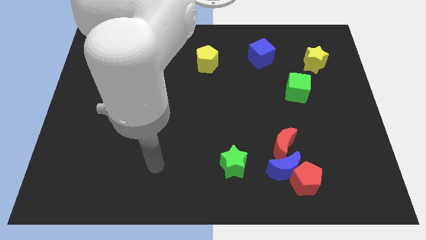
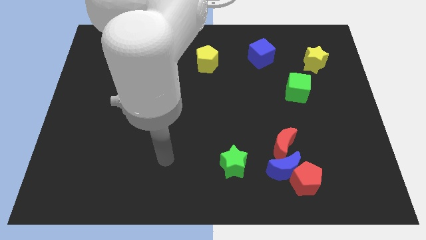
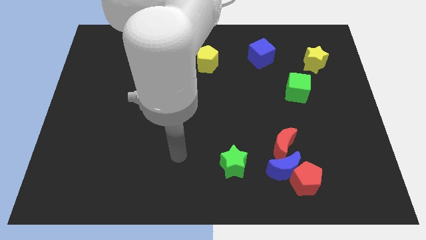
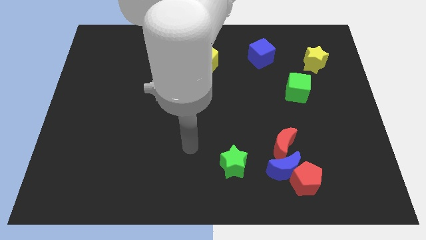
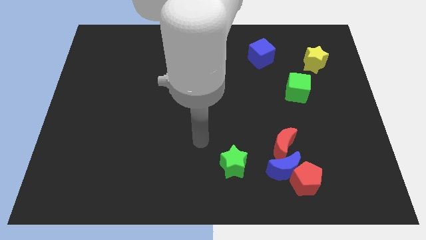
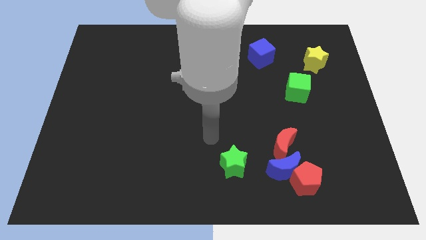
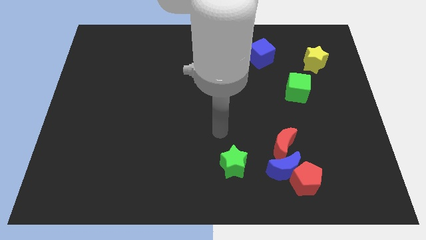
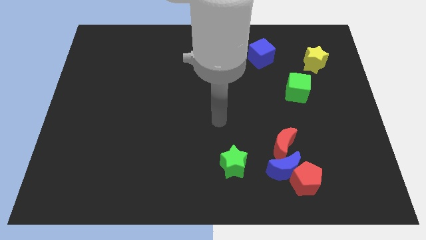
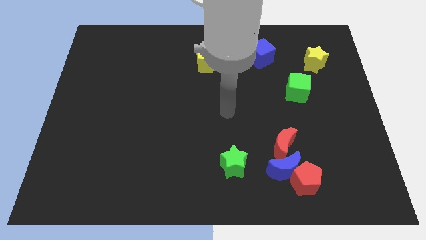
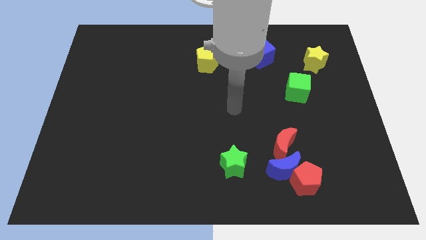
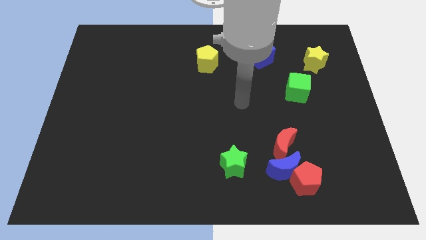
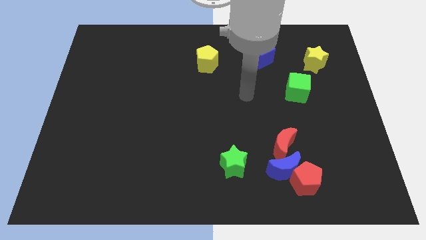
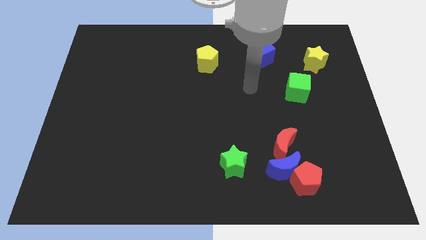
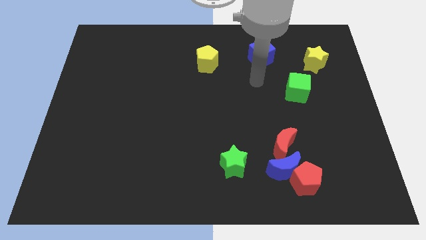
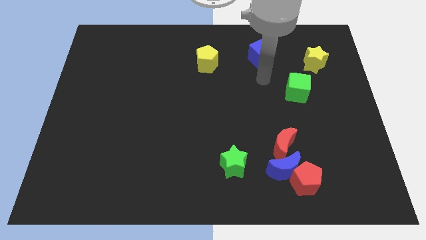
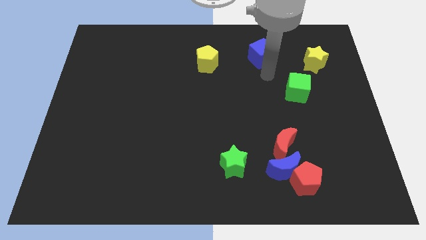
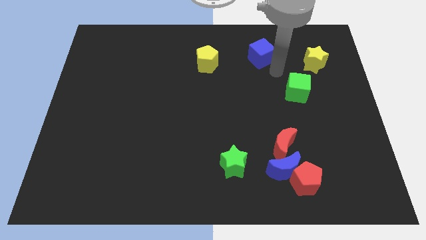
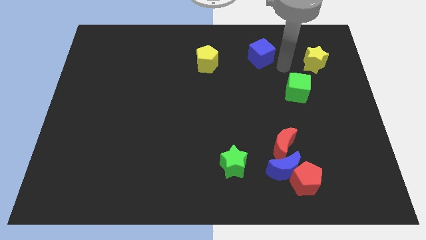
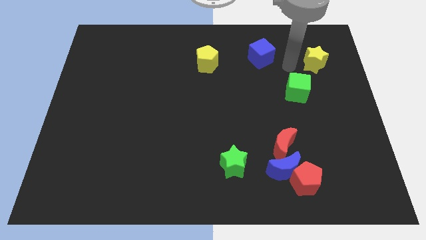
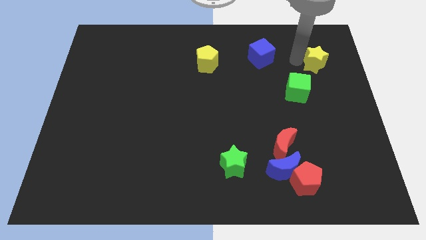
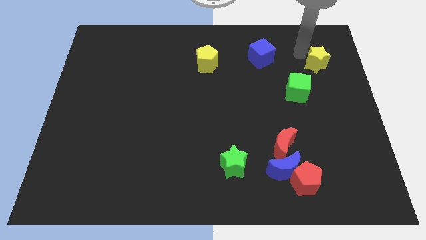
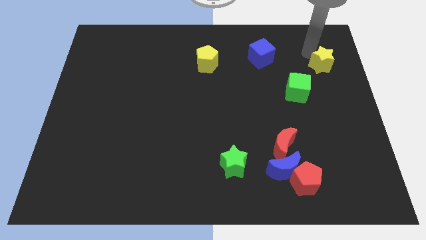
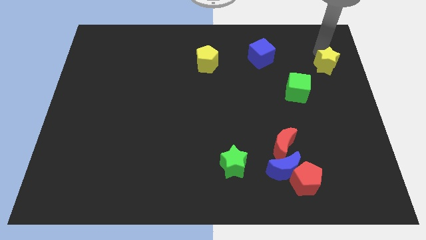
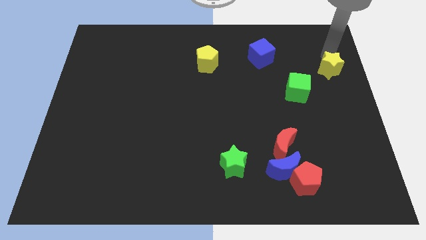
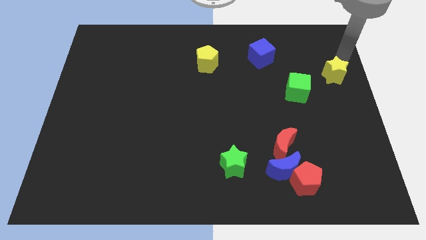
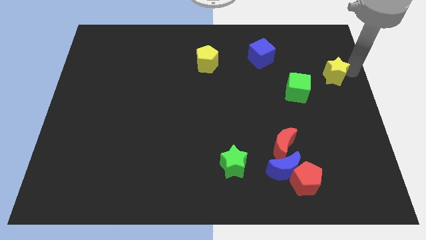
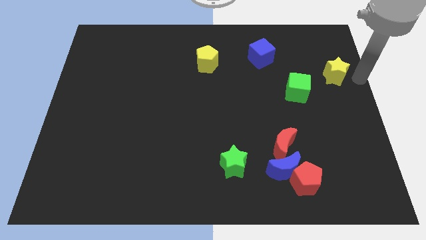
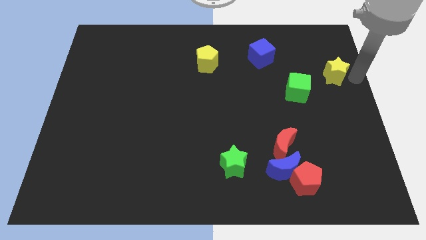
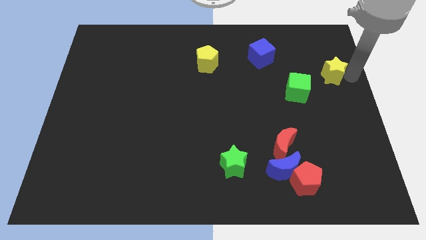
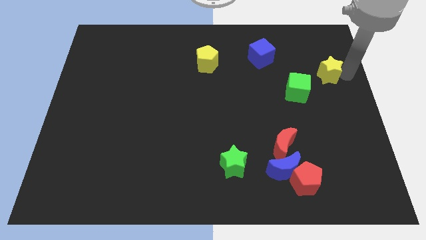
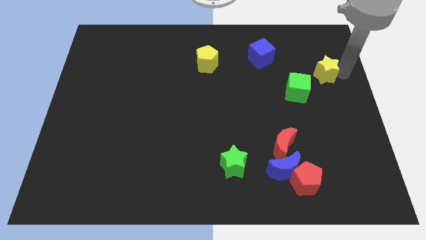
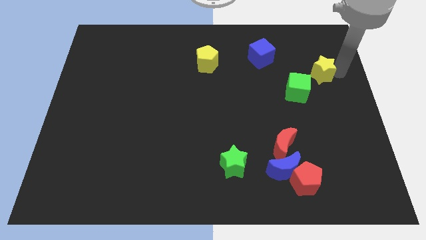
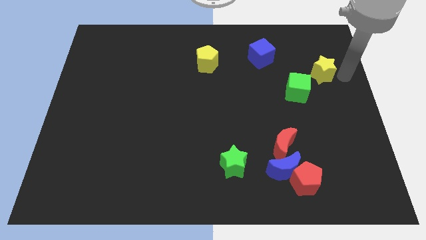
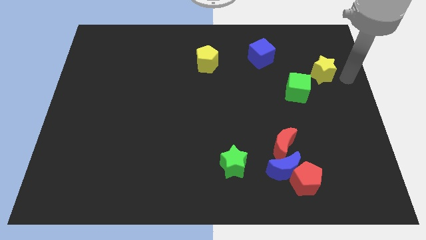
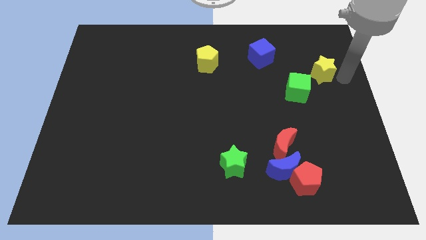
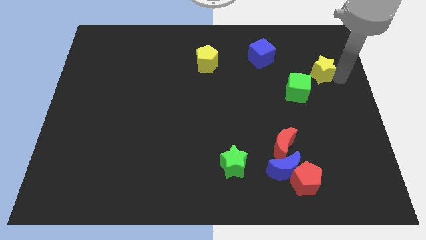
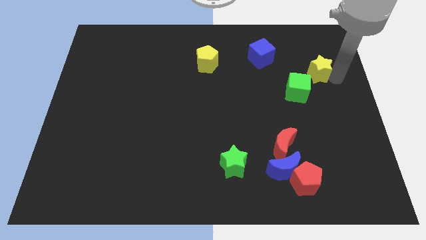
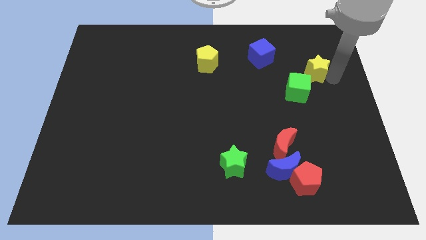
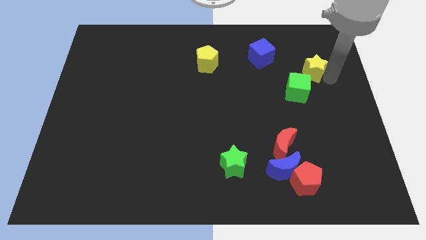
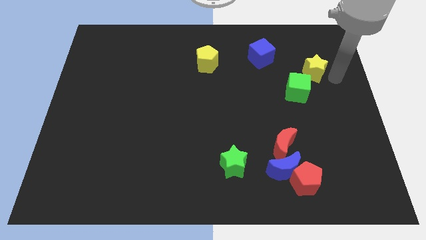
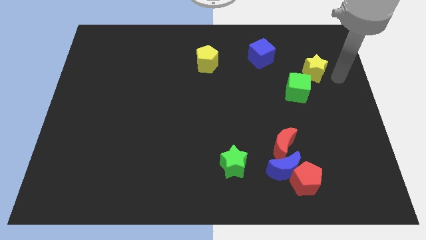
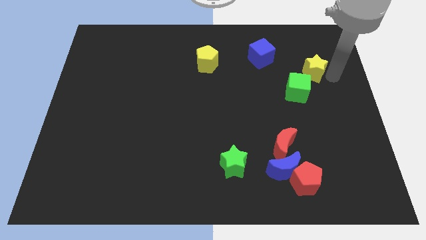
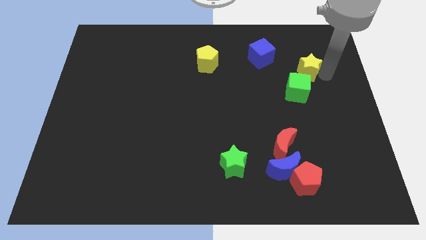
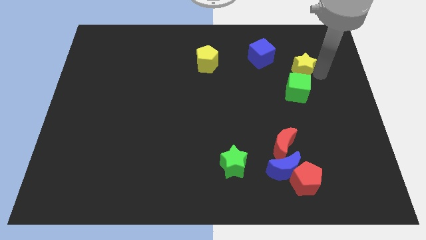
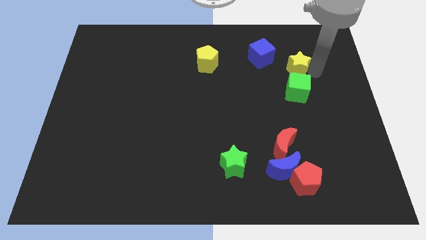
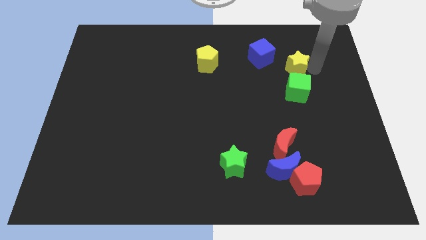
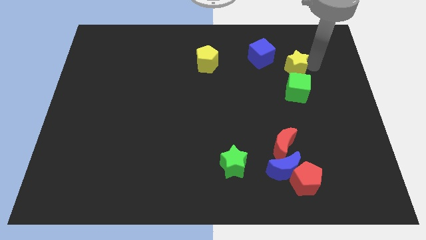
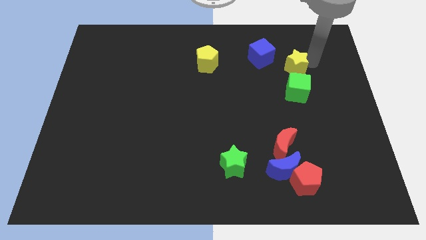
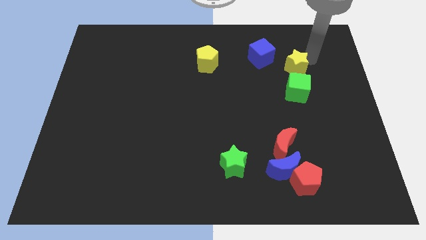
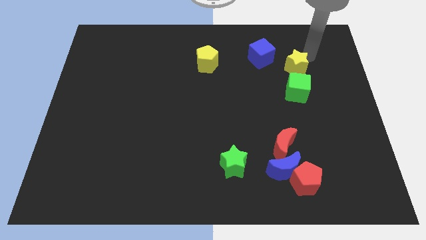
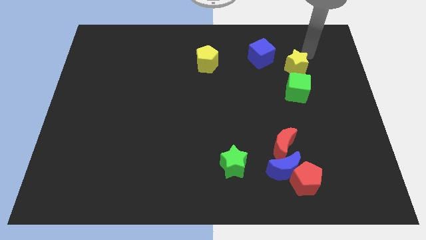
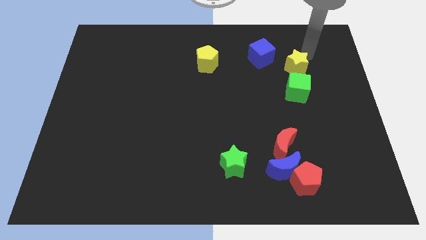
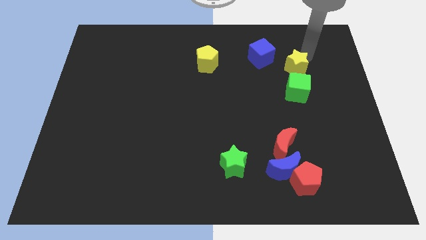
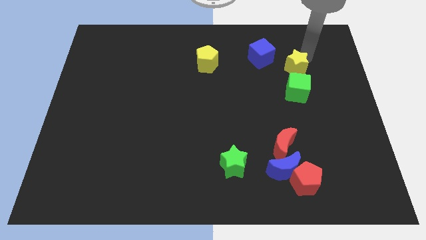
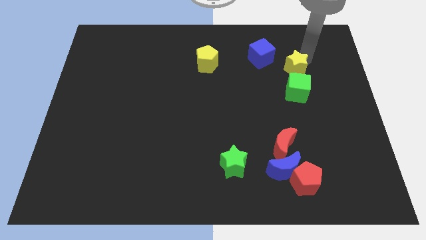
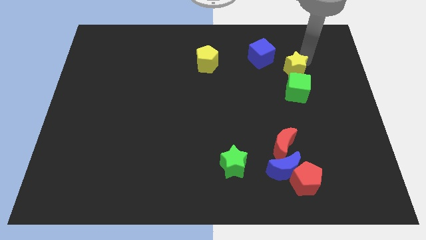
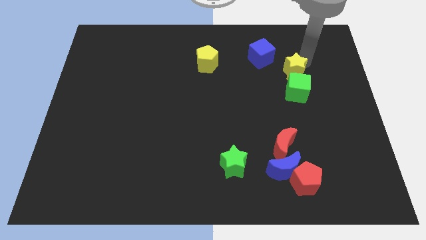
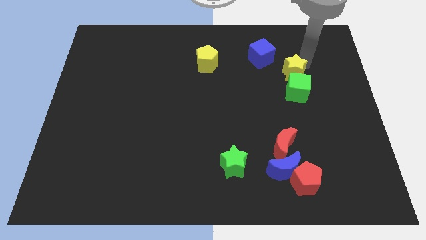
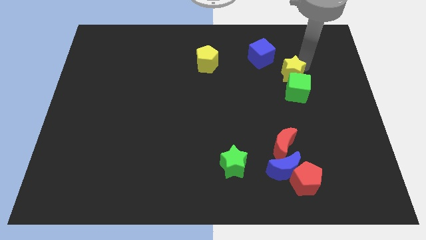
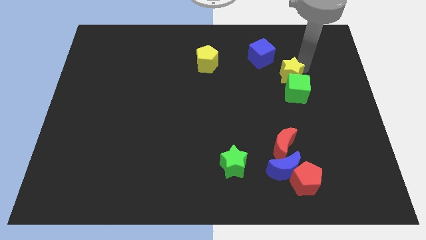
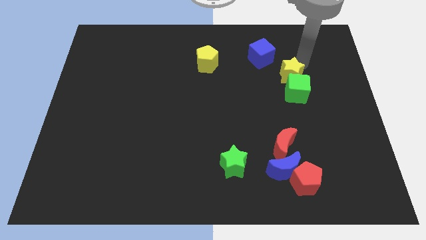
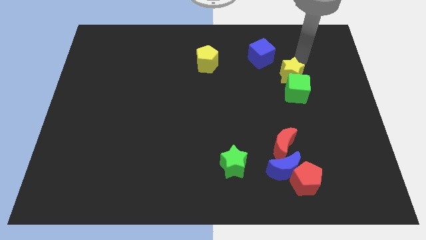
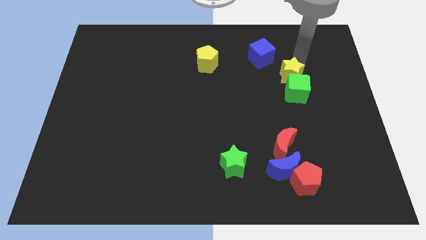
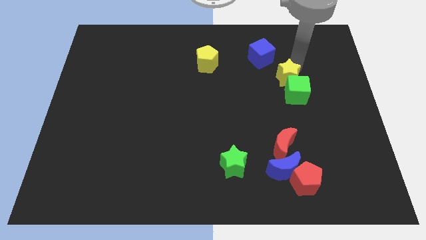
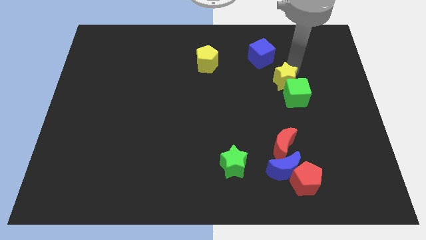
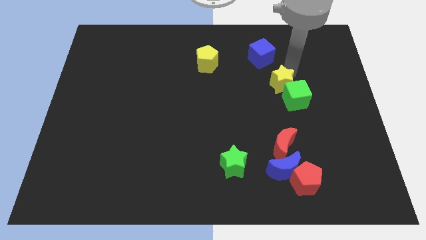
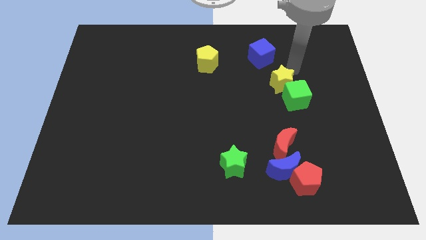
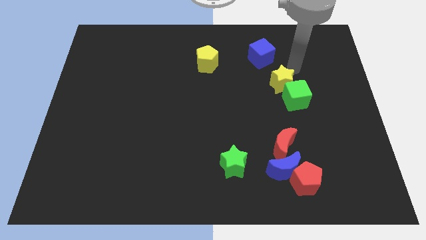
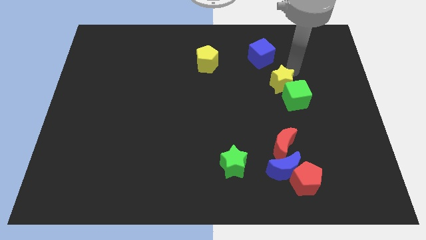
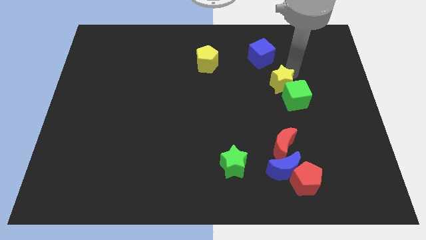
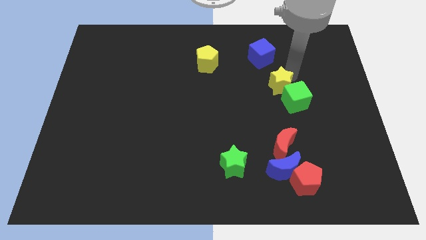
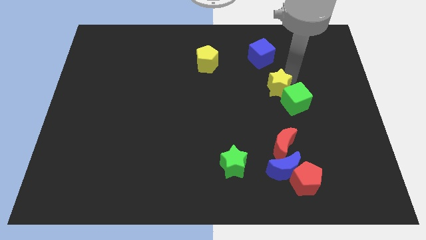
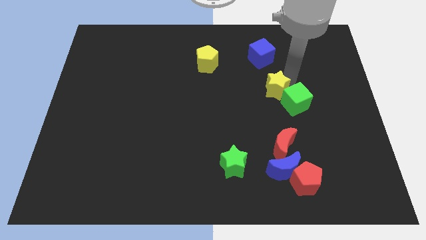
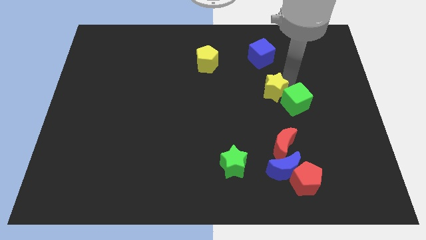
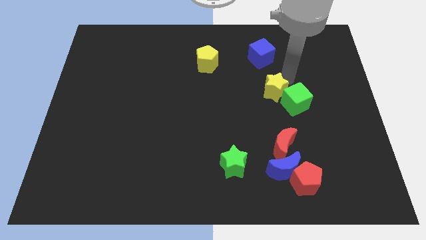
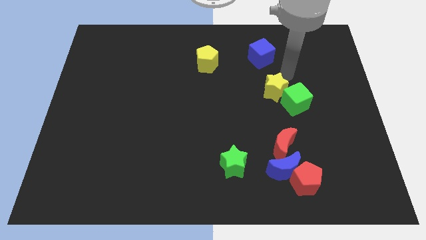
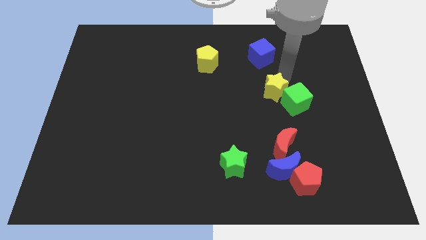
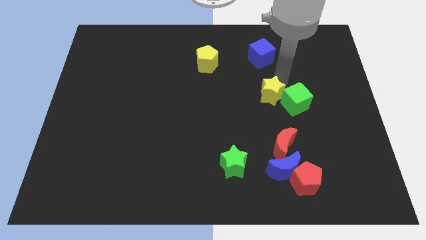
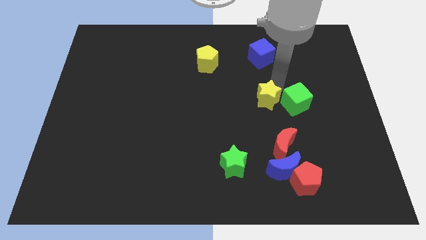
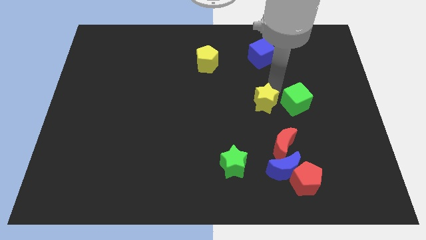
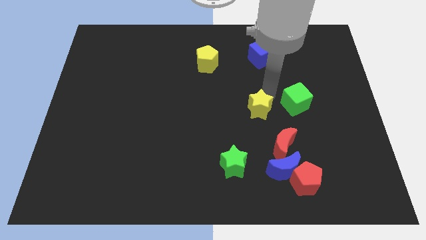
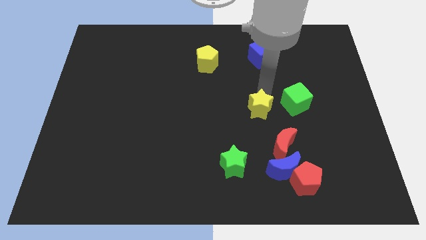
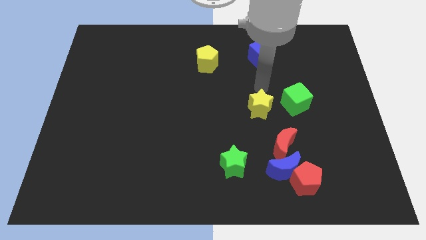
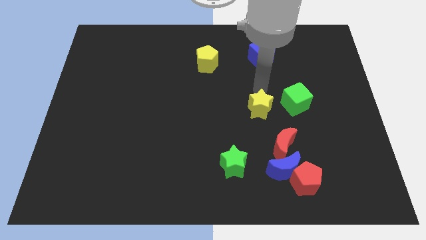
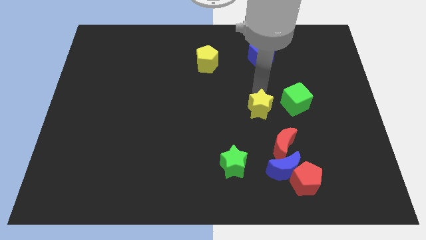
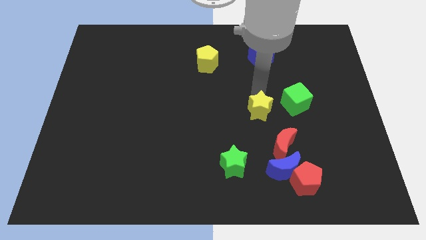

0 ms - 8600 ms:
slide the yellow star to the top left side of the red moon
